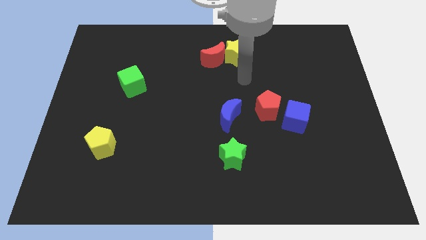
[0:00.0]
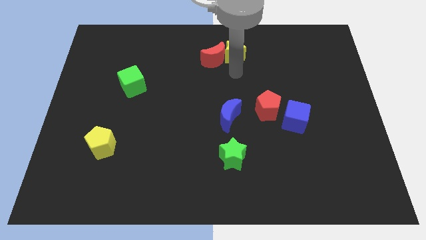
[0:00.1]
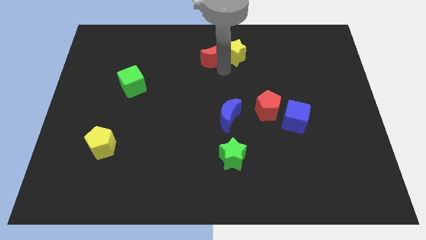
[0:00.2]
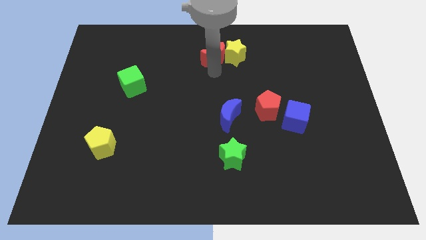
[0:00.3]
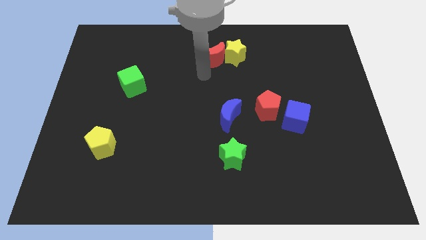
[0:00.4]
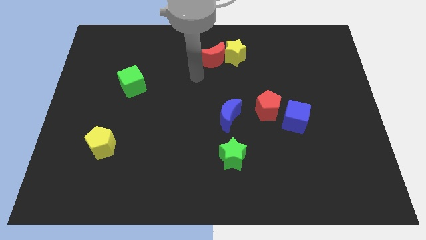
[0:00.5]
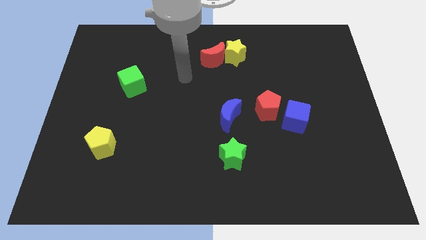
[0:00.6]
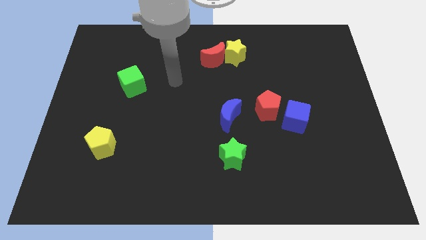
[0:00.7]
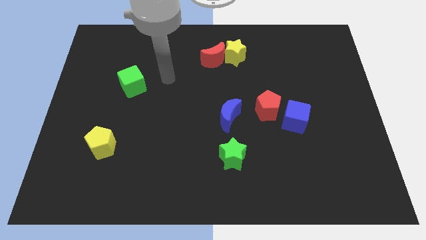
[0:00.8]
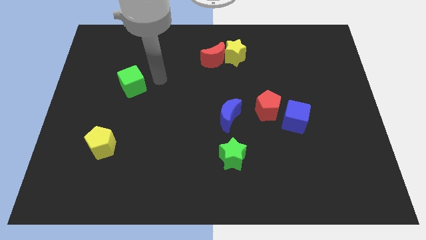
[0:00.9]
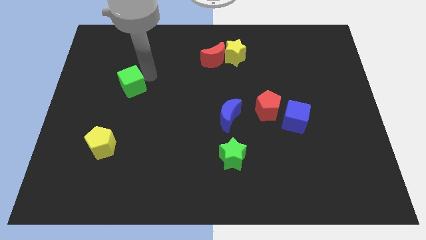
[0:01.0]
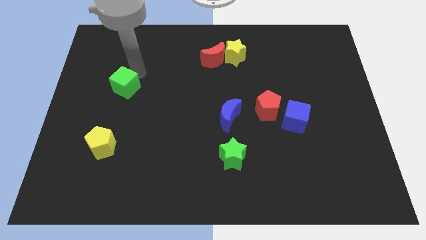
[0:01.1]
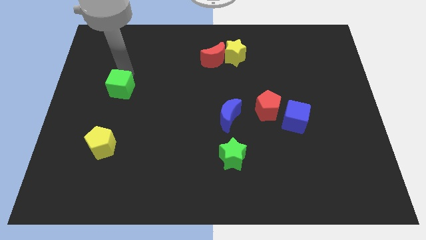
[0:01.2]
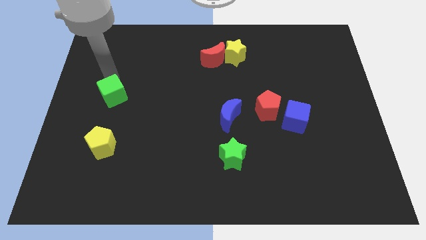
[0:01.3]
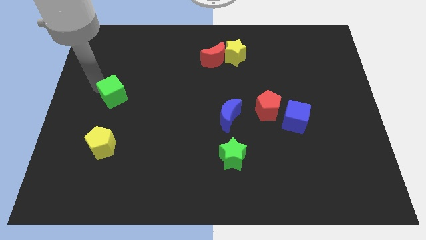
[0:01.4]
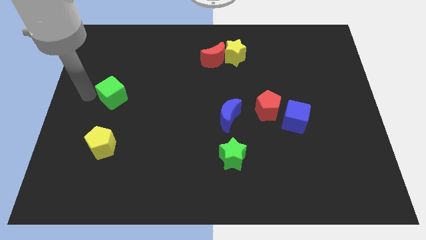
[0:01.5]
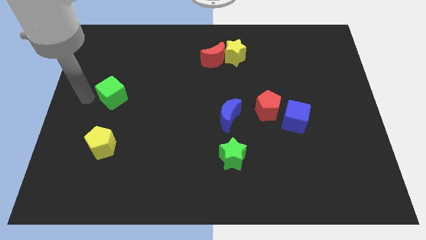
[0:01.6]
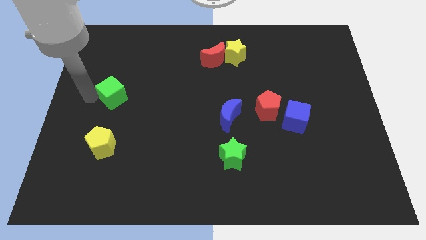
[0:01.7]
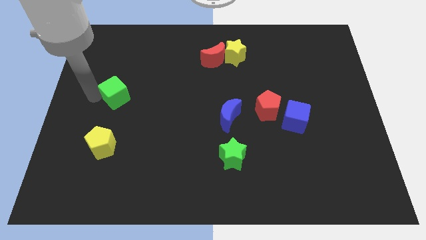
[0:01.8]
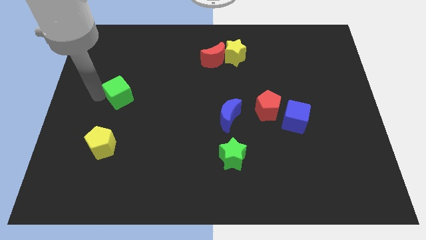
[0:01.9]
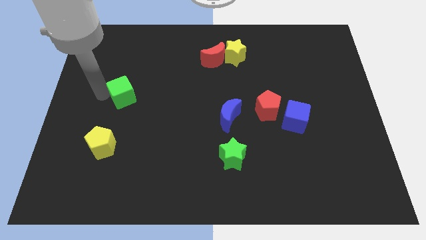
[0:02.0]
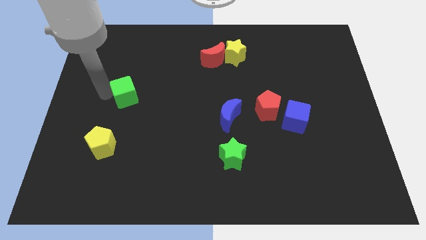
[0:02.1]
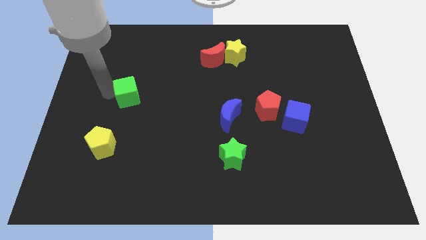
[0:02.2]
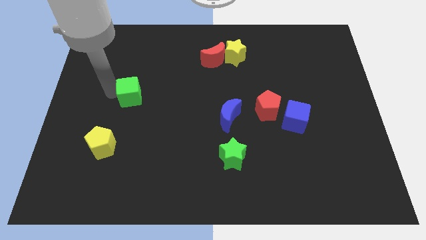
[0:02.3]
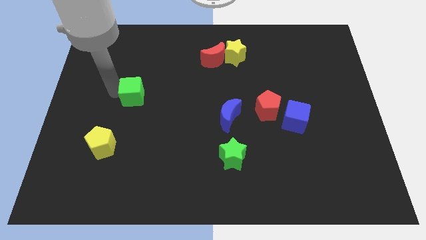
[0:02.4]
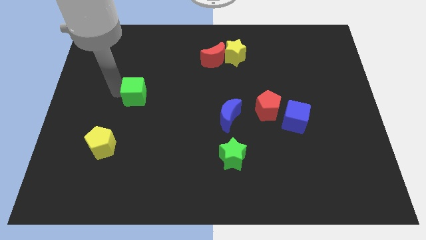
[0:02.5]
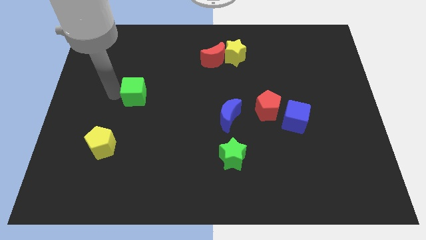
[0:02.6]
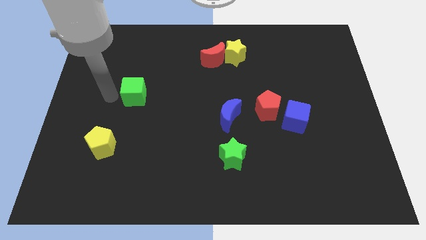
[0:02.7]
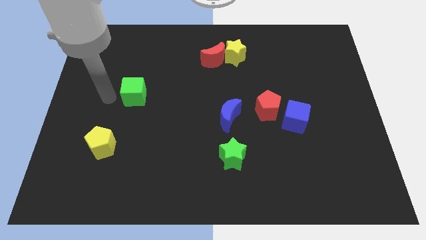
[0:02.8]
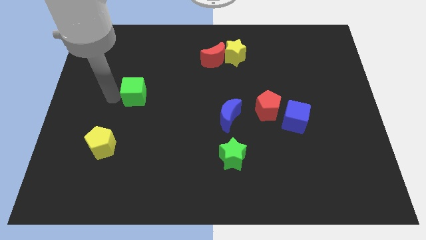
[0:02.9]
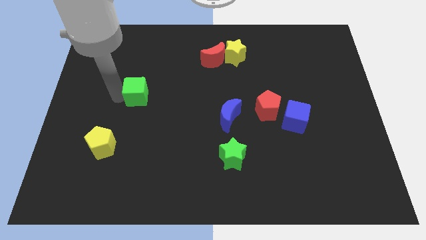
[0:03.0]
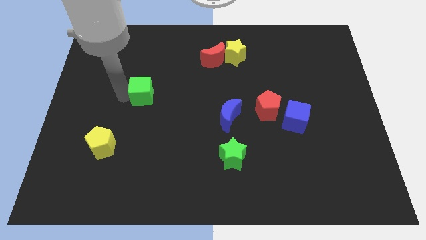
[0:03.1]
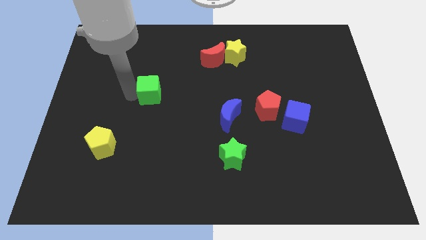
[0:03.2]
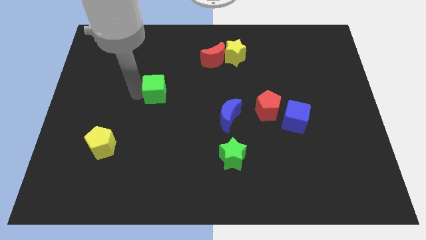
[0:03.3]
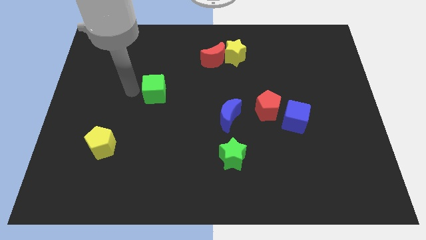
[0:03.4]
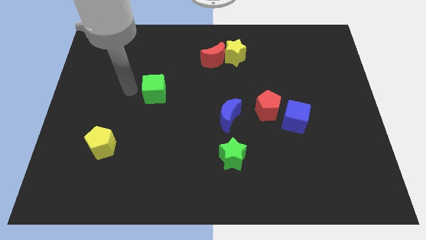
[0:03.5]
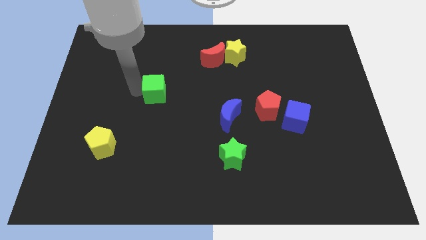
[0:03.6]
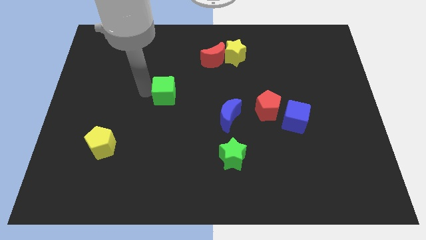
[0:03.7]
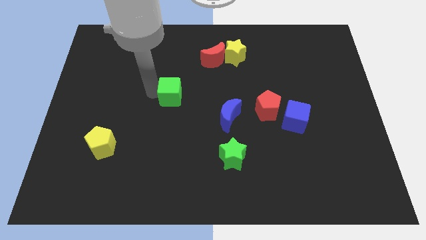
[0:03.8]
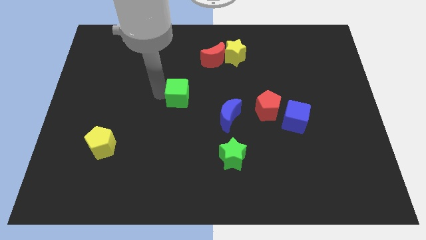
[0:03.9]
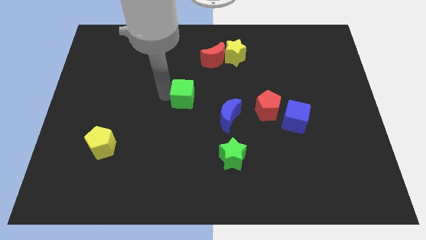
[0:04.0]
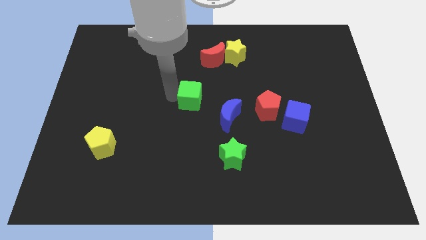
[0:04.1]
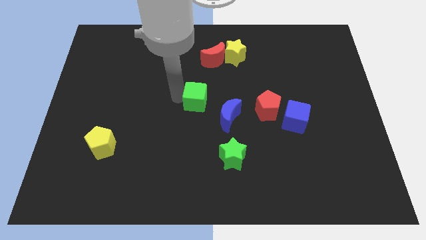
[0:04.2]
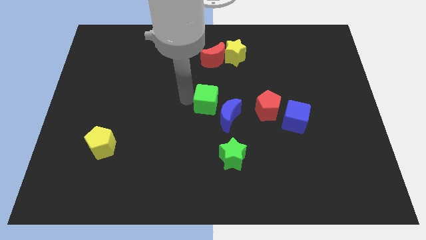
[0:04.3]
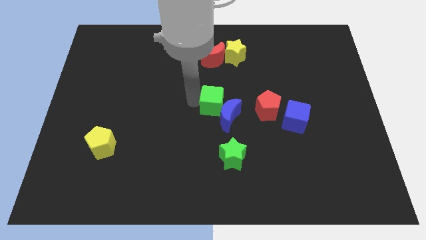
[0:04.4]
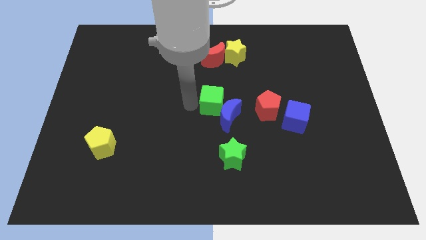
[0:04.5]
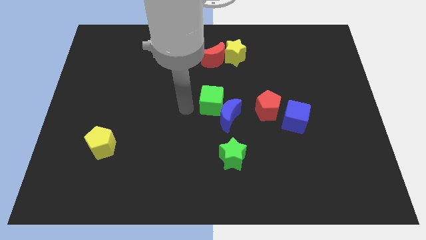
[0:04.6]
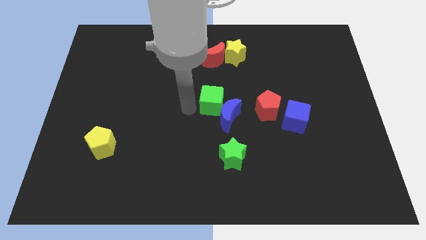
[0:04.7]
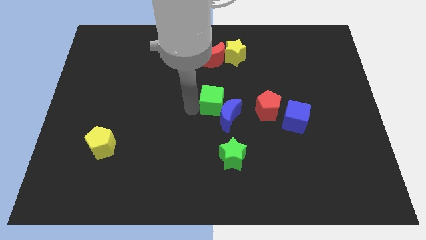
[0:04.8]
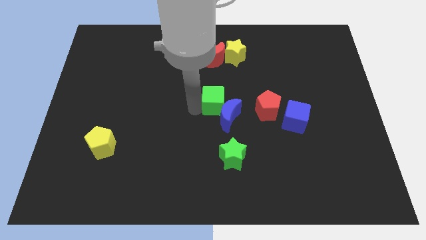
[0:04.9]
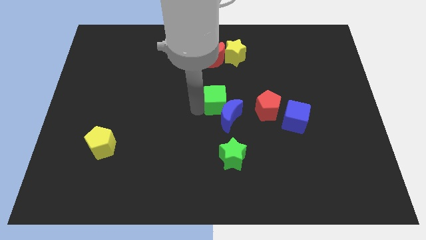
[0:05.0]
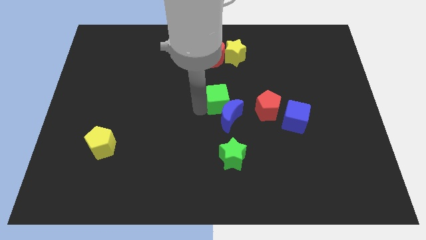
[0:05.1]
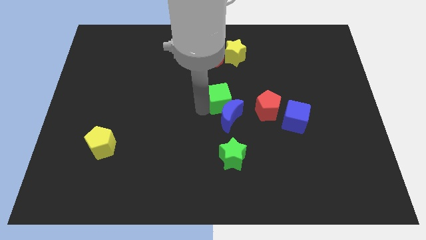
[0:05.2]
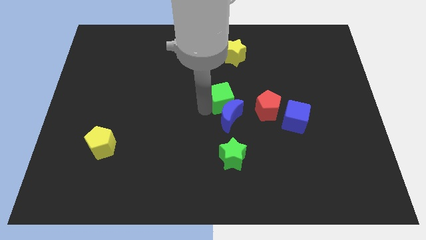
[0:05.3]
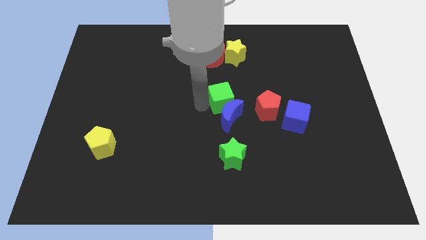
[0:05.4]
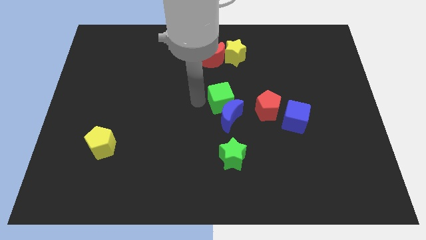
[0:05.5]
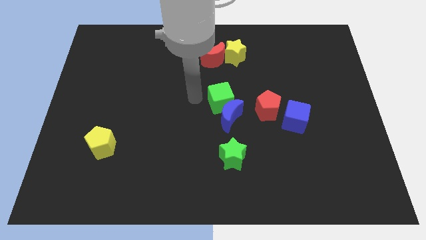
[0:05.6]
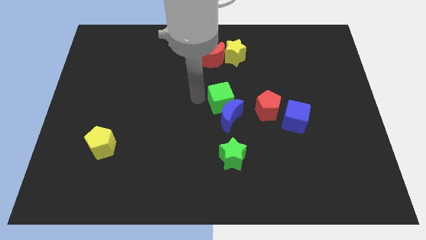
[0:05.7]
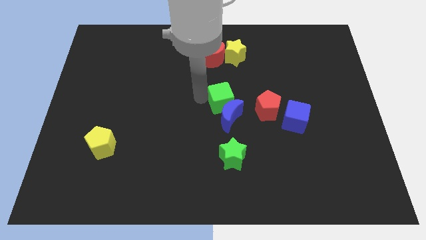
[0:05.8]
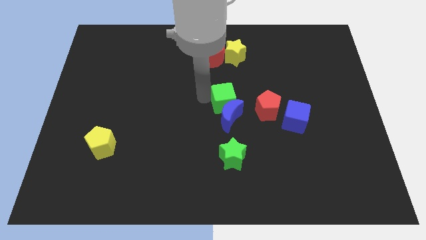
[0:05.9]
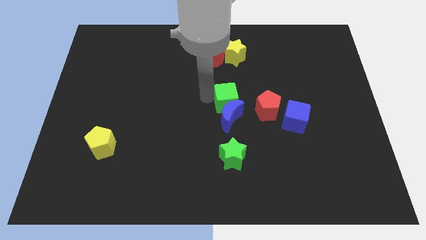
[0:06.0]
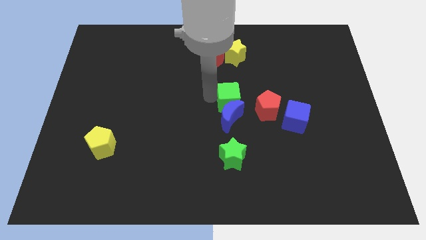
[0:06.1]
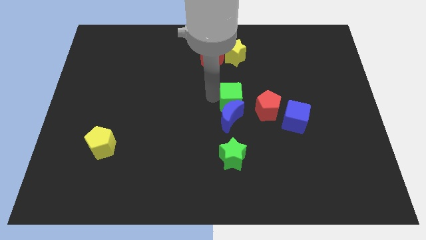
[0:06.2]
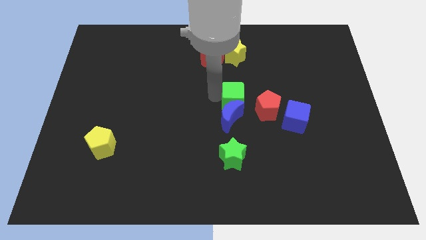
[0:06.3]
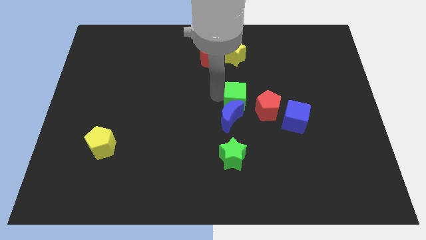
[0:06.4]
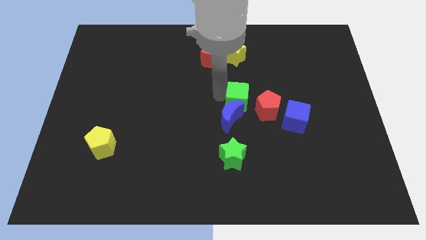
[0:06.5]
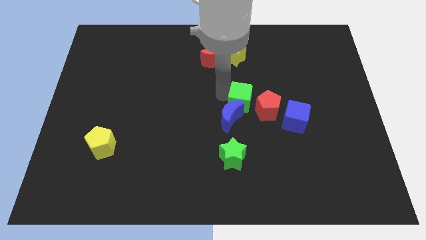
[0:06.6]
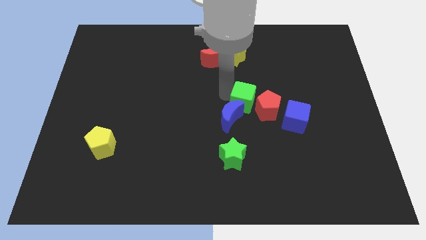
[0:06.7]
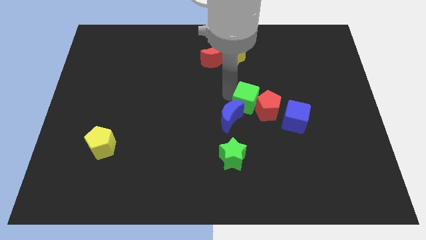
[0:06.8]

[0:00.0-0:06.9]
move the green cube next to the red pentagon
